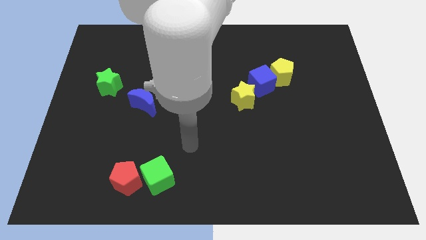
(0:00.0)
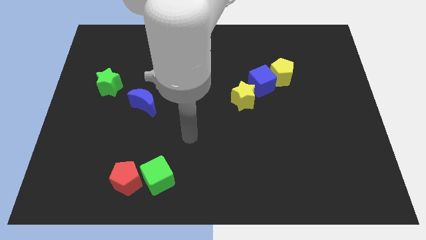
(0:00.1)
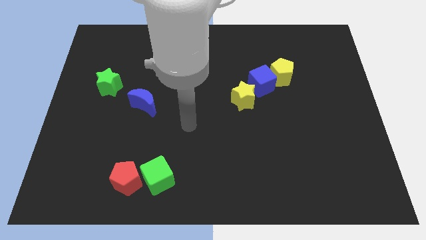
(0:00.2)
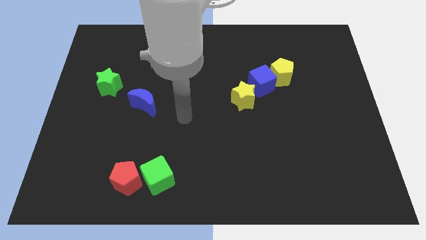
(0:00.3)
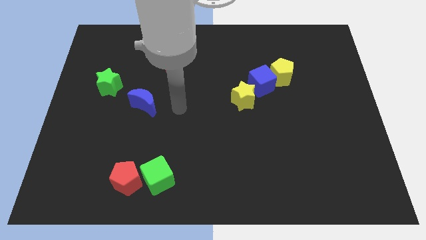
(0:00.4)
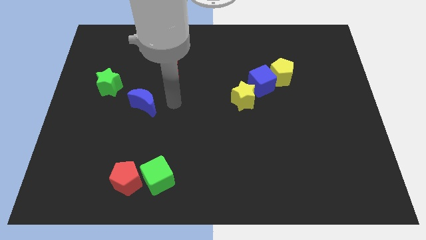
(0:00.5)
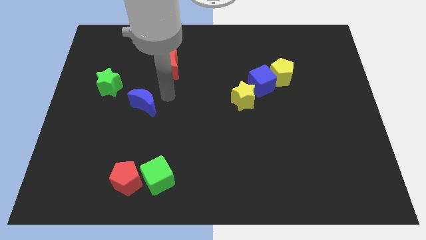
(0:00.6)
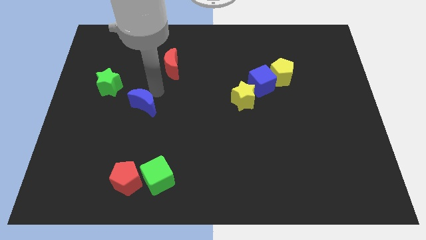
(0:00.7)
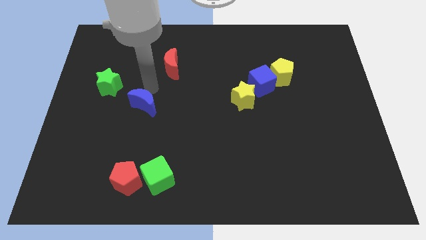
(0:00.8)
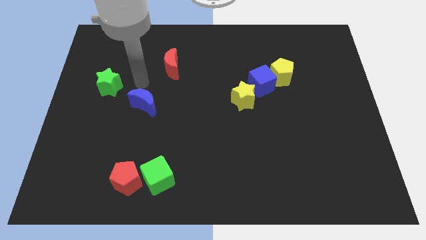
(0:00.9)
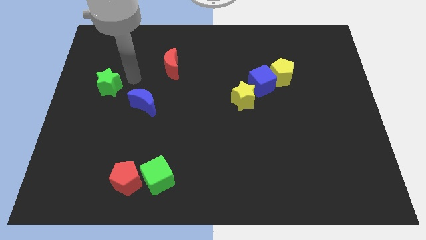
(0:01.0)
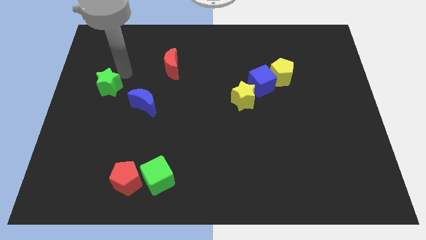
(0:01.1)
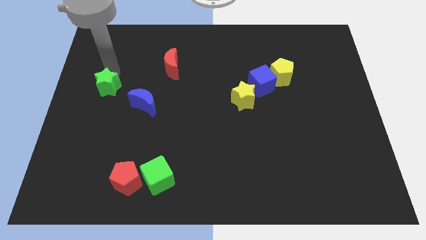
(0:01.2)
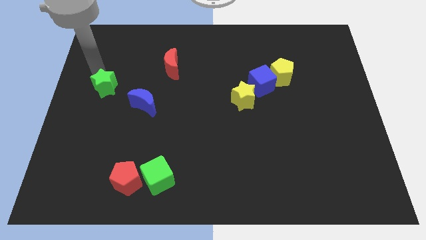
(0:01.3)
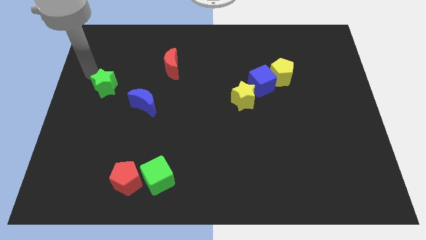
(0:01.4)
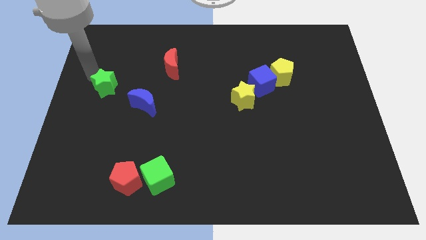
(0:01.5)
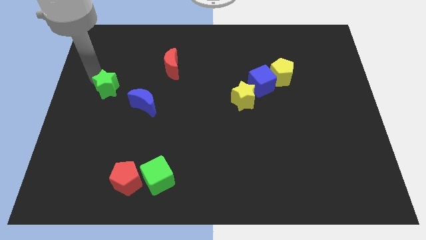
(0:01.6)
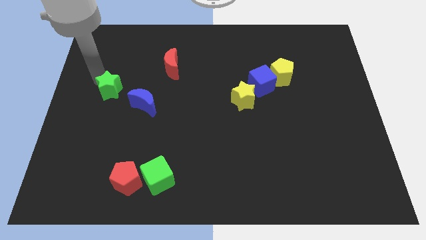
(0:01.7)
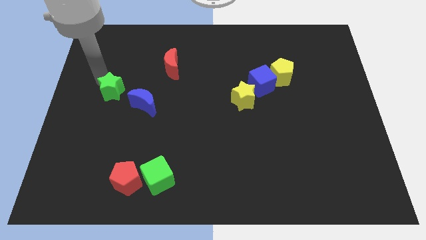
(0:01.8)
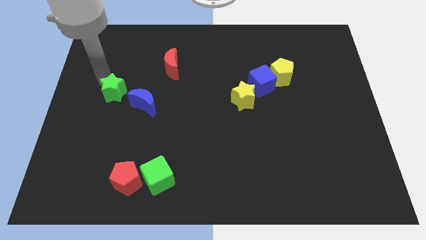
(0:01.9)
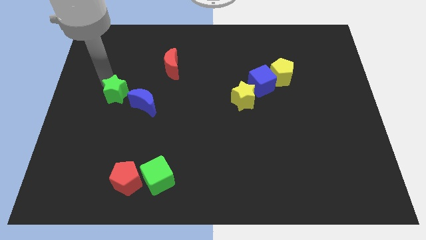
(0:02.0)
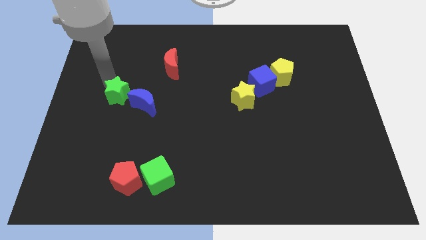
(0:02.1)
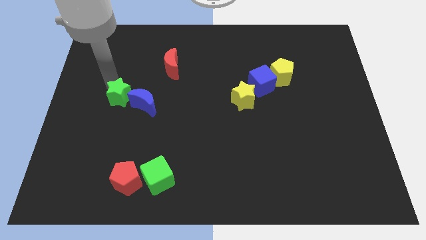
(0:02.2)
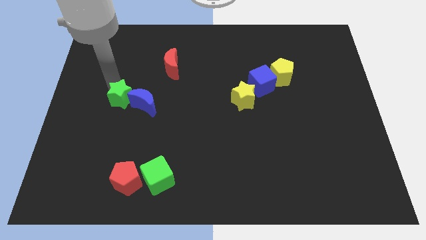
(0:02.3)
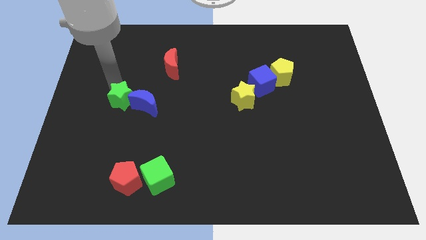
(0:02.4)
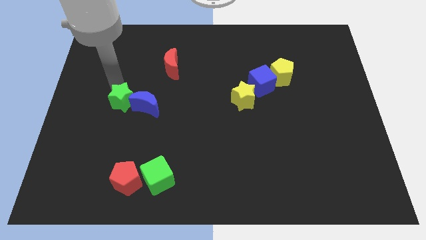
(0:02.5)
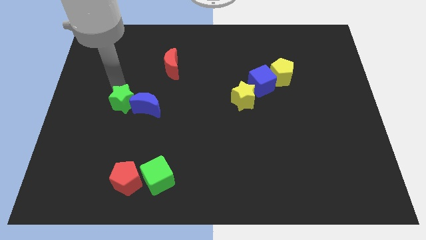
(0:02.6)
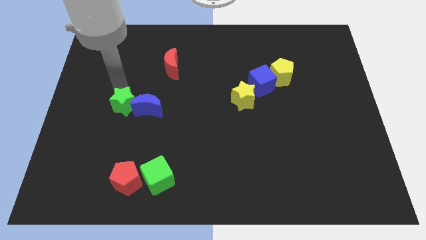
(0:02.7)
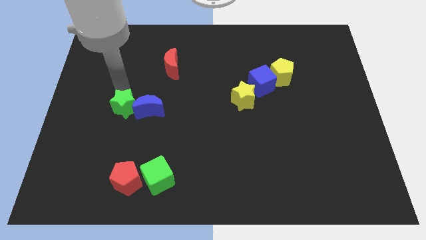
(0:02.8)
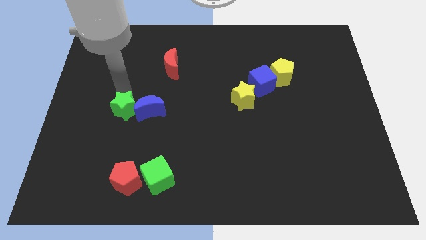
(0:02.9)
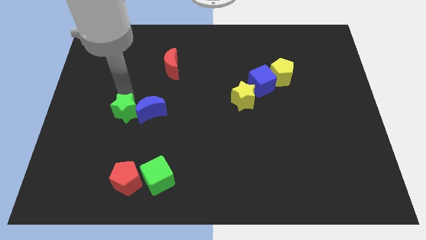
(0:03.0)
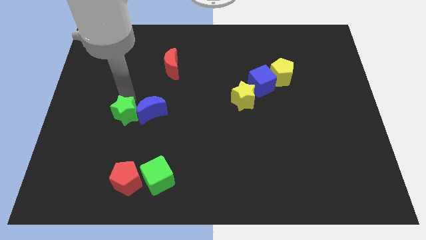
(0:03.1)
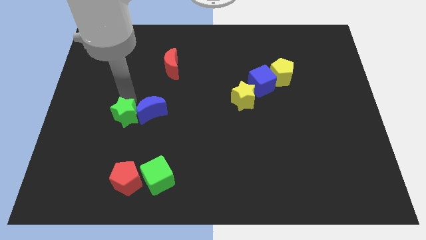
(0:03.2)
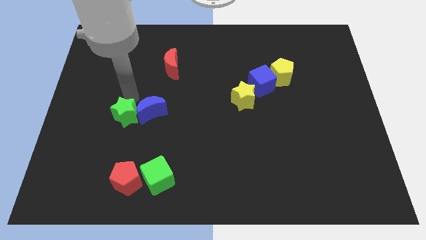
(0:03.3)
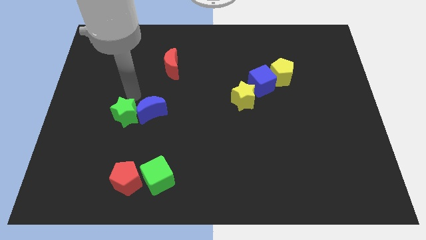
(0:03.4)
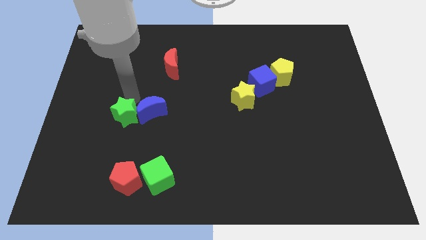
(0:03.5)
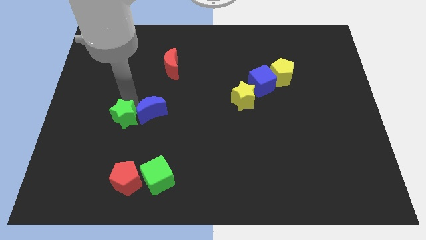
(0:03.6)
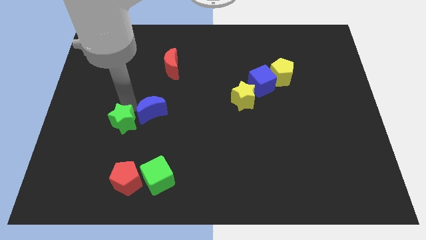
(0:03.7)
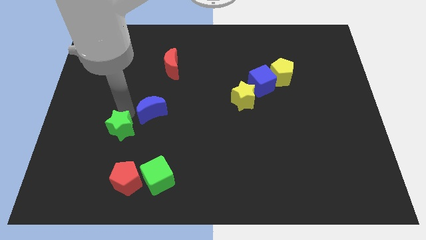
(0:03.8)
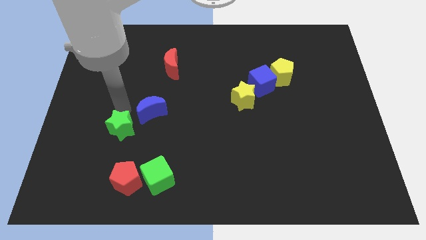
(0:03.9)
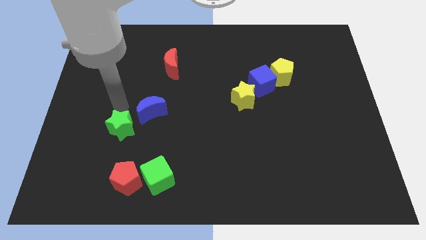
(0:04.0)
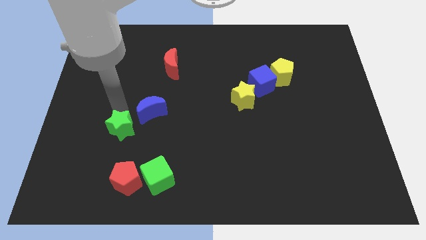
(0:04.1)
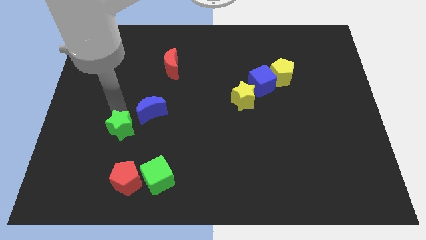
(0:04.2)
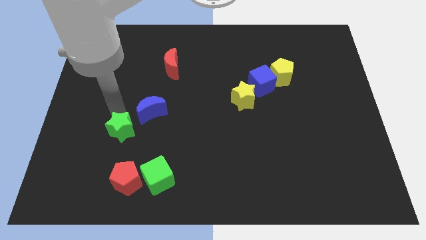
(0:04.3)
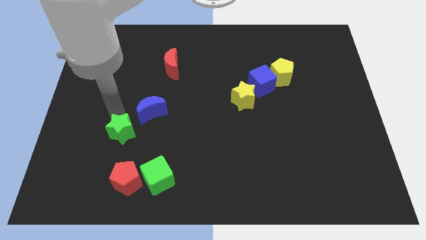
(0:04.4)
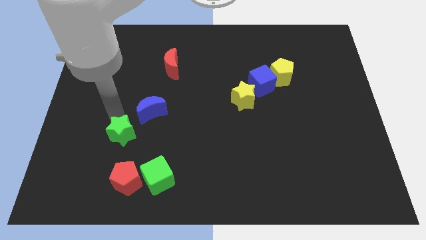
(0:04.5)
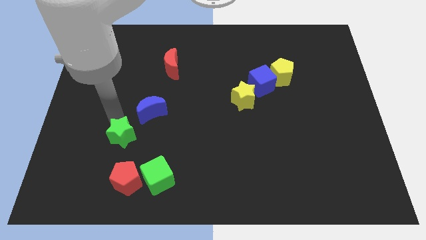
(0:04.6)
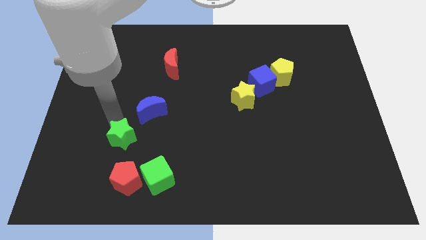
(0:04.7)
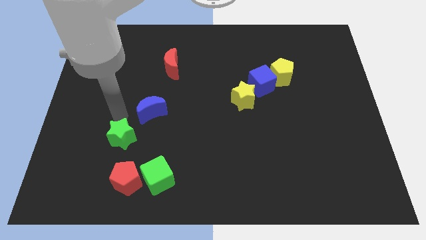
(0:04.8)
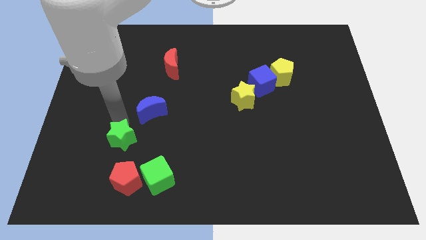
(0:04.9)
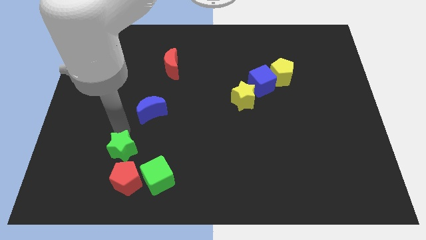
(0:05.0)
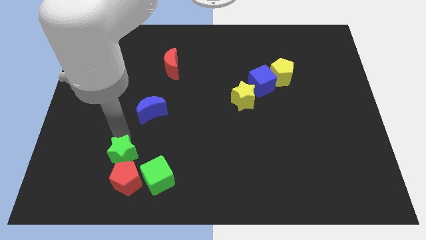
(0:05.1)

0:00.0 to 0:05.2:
move the green star towards the red pentagon

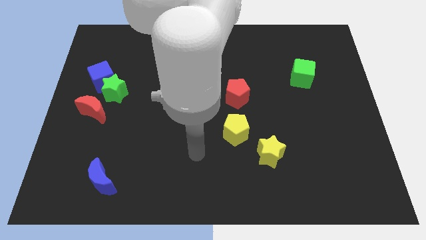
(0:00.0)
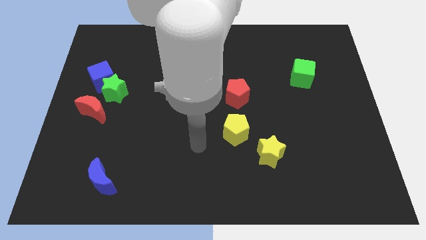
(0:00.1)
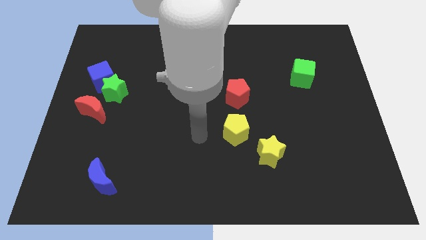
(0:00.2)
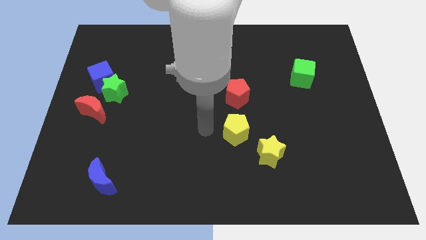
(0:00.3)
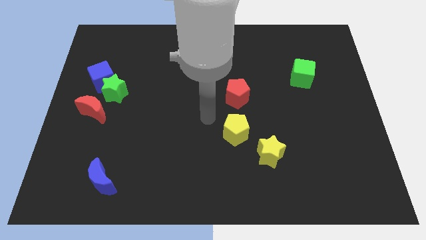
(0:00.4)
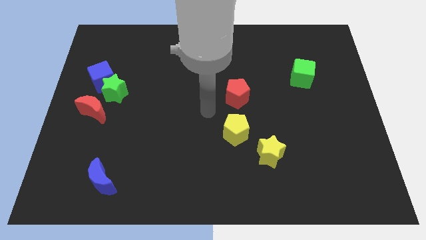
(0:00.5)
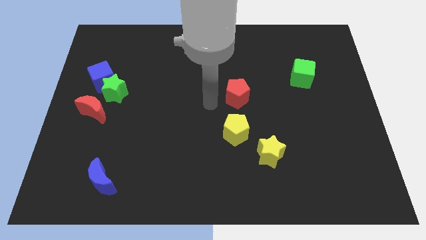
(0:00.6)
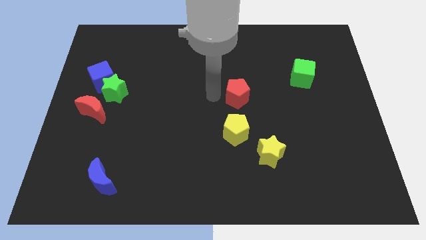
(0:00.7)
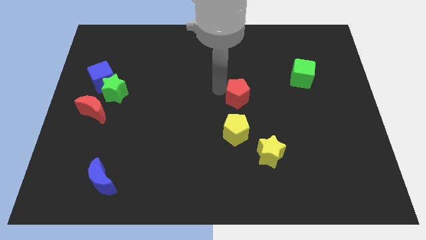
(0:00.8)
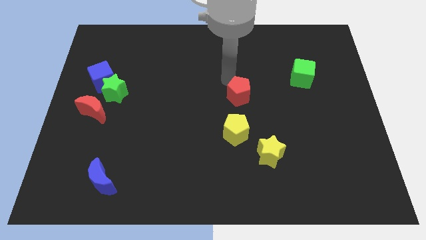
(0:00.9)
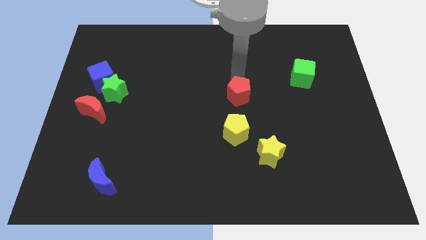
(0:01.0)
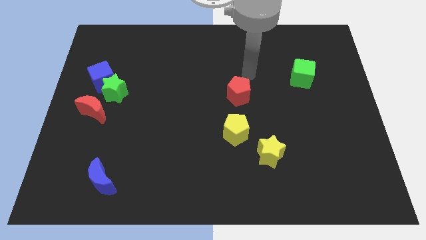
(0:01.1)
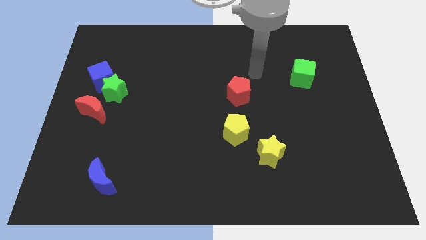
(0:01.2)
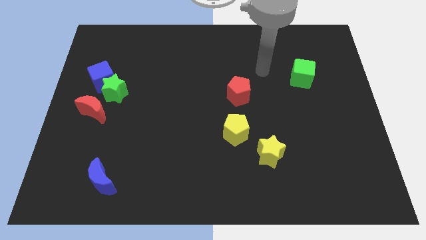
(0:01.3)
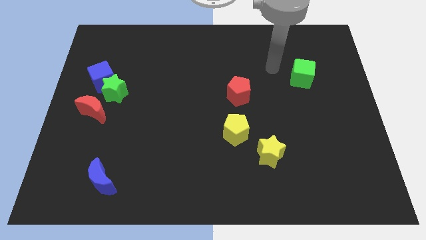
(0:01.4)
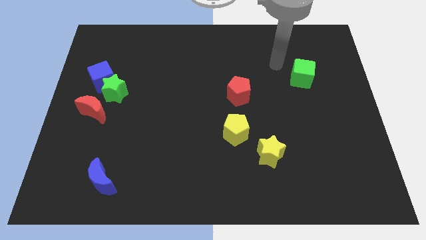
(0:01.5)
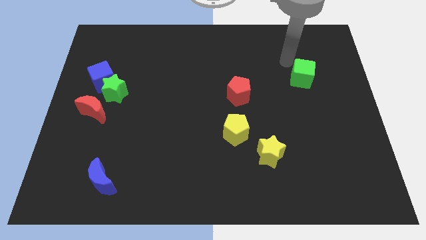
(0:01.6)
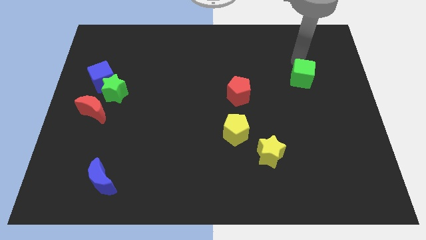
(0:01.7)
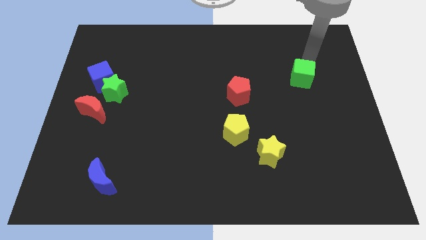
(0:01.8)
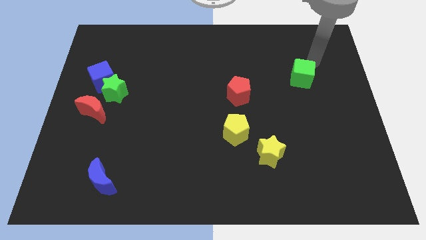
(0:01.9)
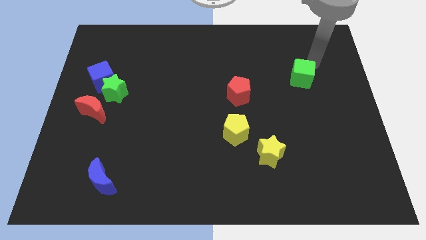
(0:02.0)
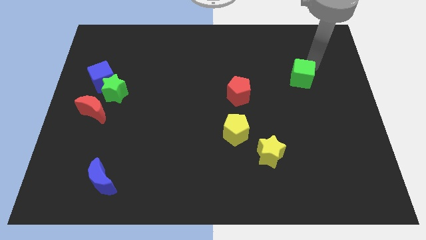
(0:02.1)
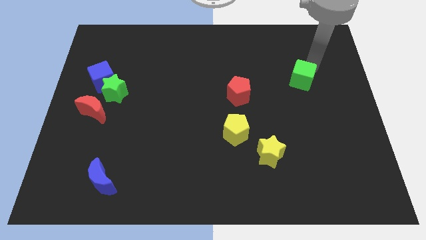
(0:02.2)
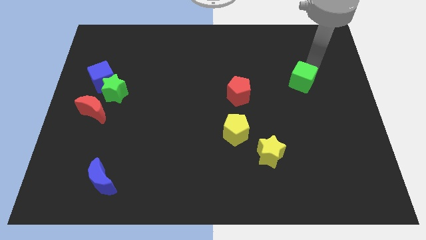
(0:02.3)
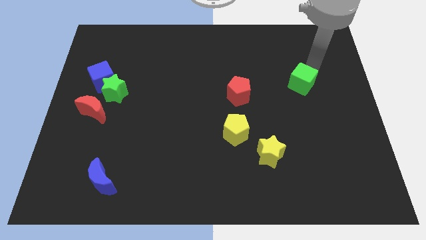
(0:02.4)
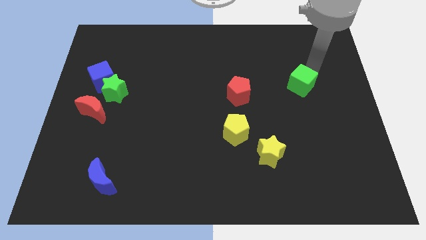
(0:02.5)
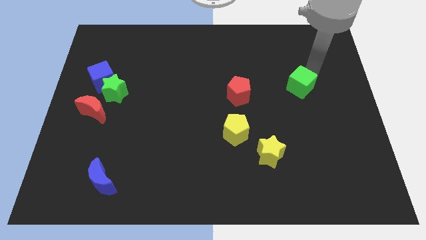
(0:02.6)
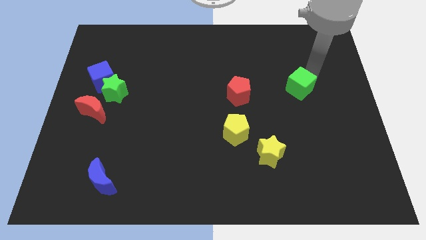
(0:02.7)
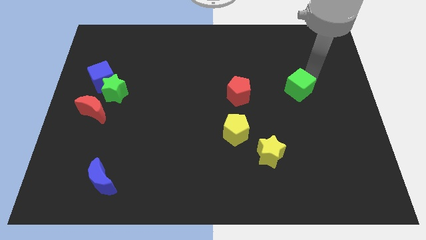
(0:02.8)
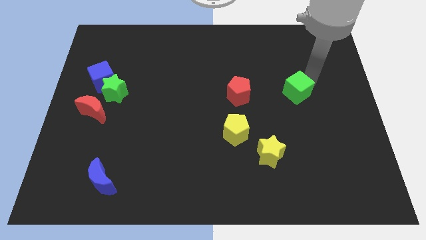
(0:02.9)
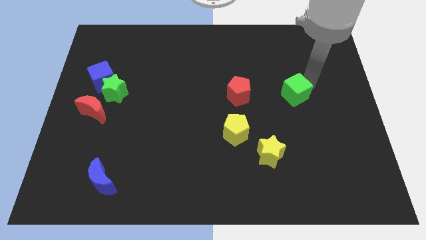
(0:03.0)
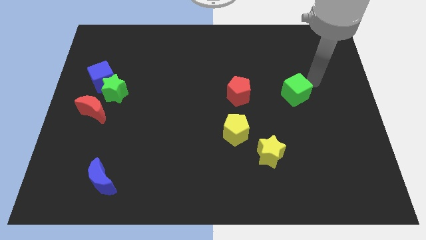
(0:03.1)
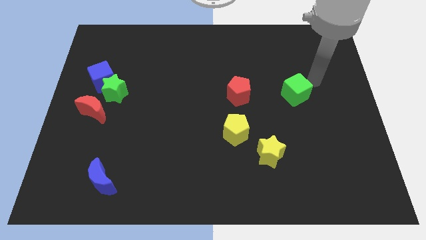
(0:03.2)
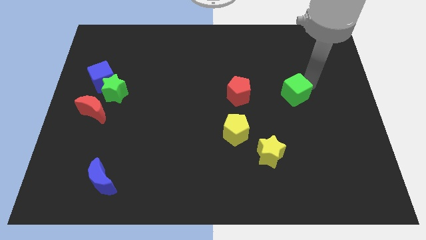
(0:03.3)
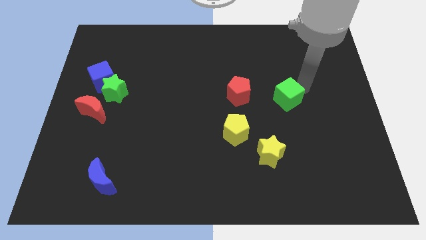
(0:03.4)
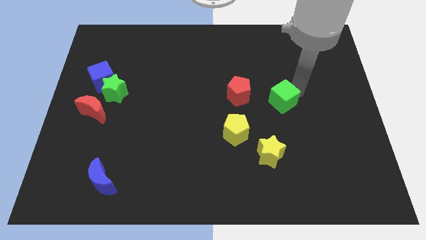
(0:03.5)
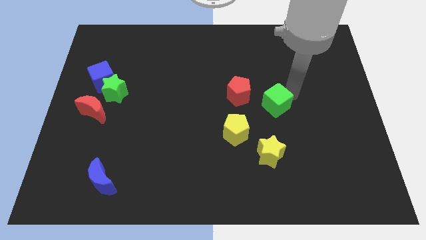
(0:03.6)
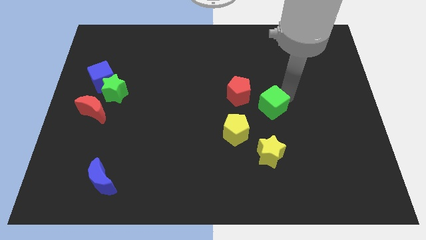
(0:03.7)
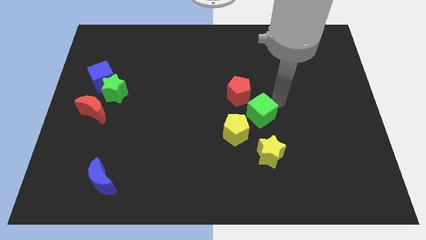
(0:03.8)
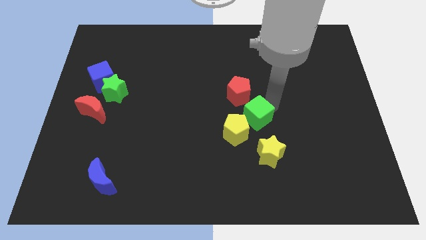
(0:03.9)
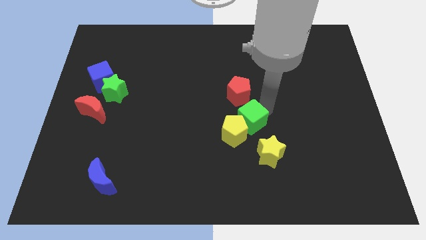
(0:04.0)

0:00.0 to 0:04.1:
slide the green cube towards the yellow pentagon
